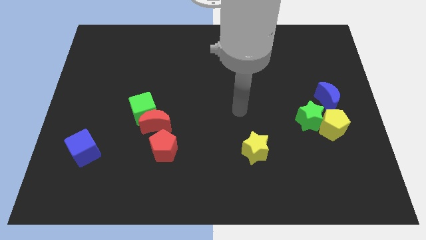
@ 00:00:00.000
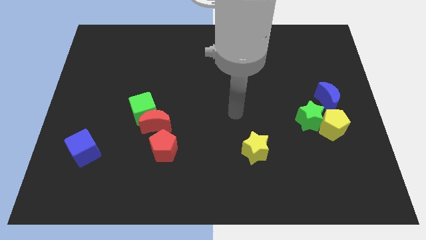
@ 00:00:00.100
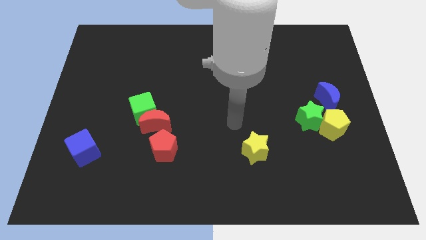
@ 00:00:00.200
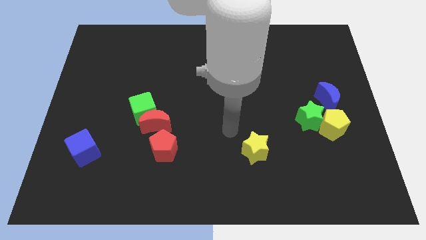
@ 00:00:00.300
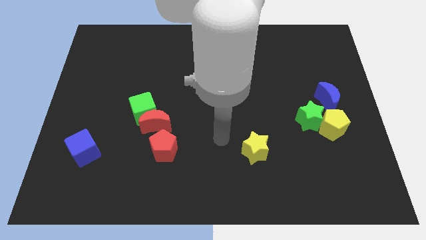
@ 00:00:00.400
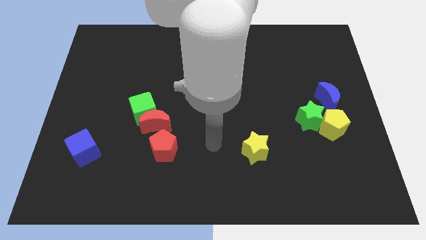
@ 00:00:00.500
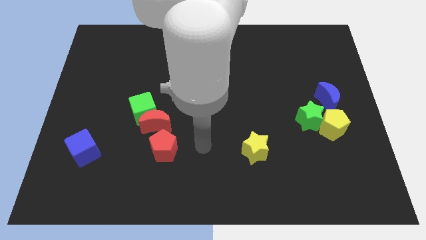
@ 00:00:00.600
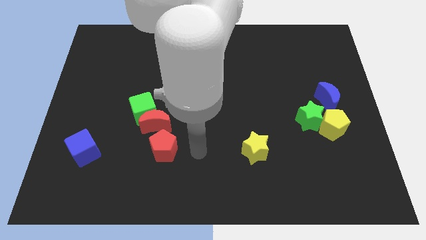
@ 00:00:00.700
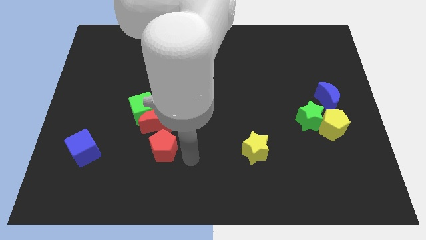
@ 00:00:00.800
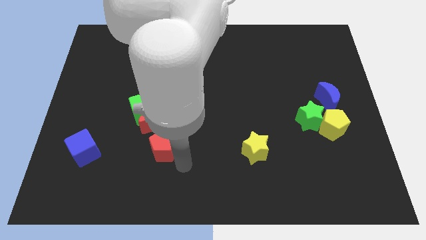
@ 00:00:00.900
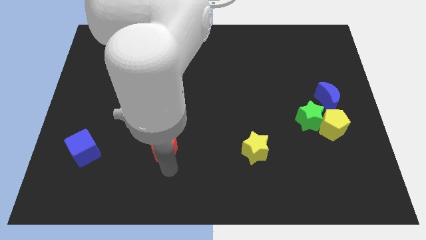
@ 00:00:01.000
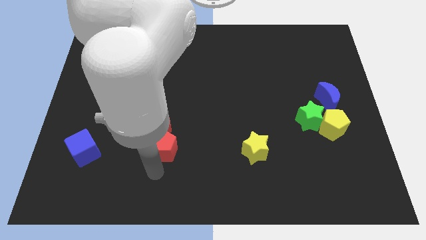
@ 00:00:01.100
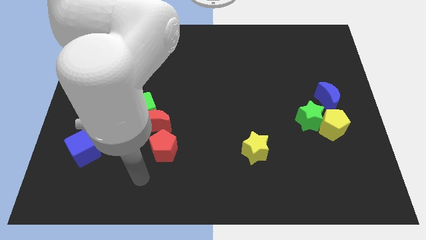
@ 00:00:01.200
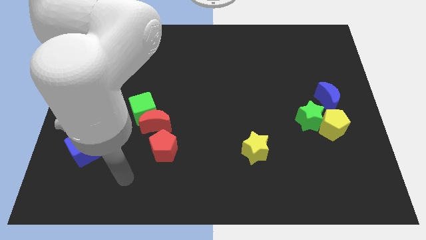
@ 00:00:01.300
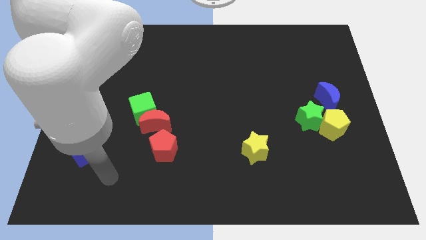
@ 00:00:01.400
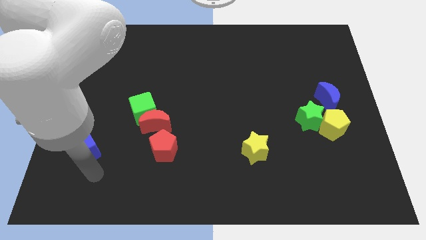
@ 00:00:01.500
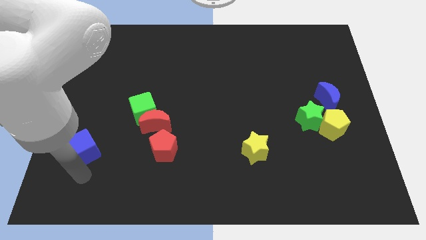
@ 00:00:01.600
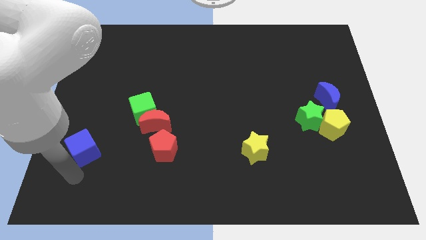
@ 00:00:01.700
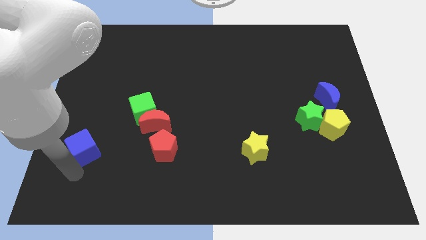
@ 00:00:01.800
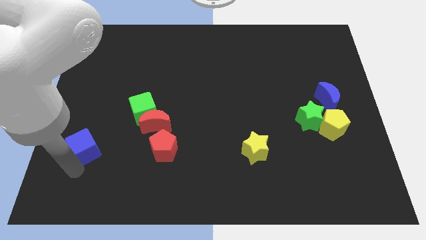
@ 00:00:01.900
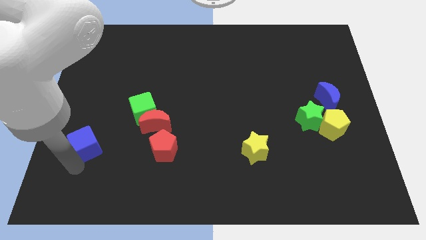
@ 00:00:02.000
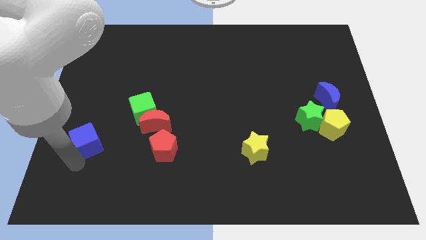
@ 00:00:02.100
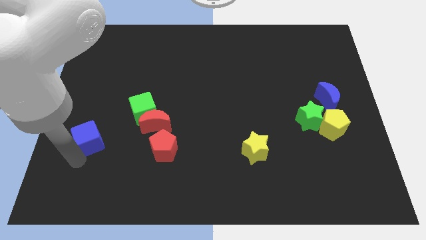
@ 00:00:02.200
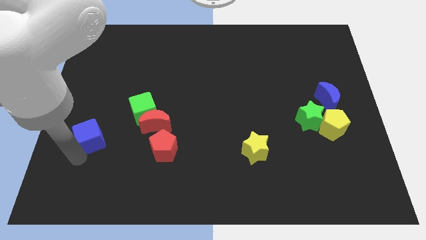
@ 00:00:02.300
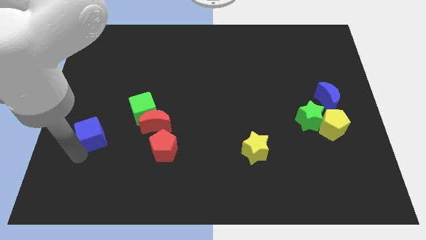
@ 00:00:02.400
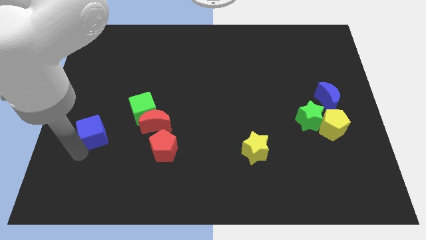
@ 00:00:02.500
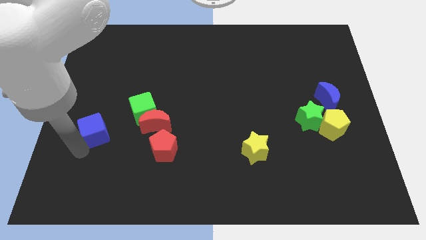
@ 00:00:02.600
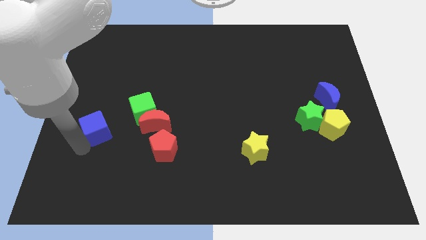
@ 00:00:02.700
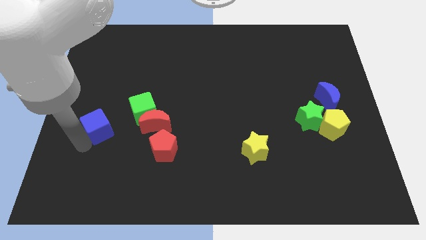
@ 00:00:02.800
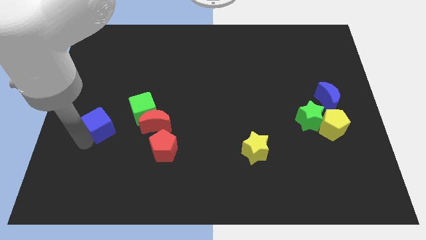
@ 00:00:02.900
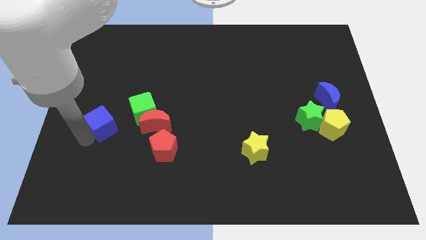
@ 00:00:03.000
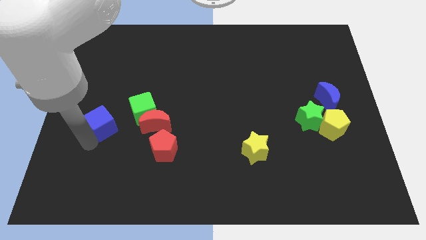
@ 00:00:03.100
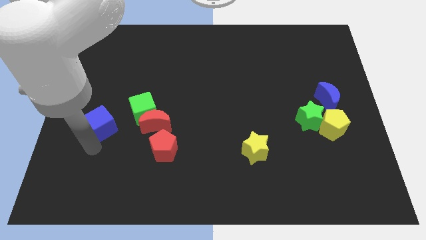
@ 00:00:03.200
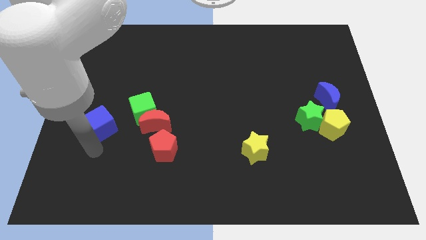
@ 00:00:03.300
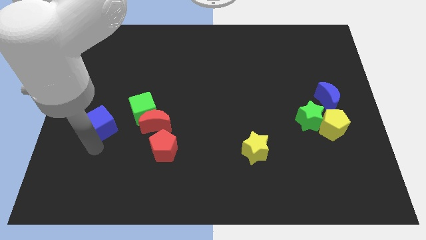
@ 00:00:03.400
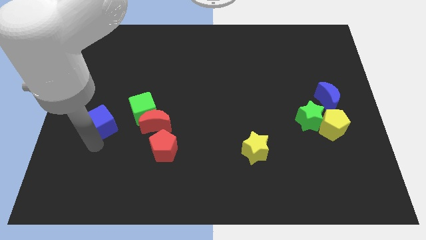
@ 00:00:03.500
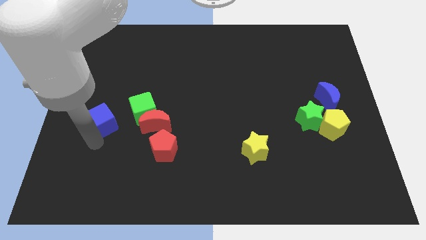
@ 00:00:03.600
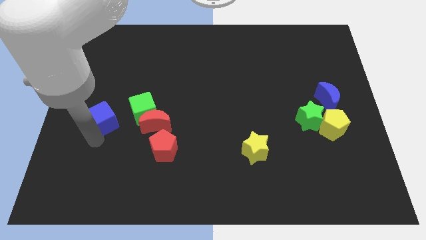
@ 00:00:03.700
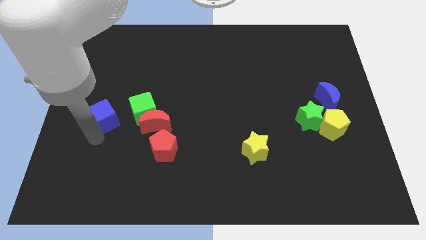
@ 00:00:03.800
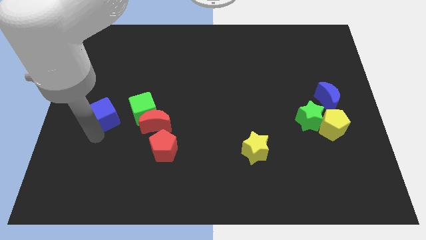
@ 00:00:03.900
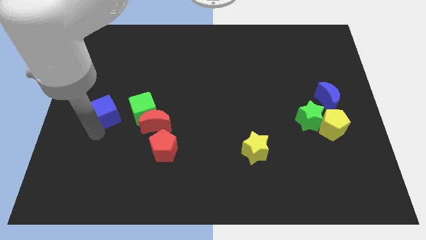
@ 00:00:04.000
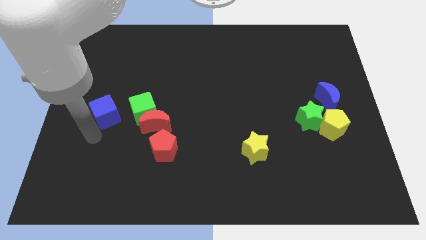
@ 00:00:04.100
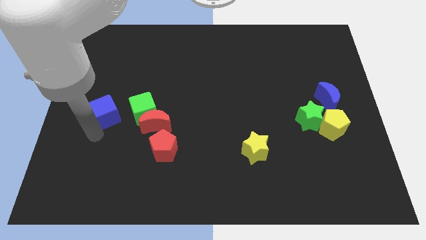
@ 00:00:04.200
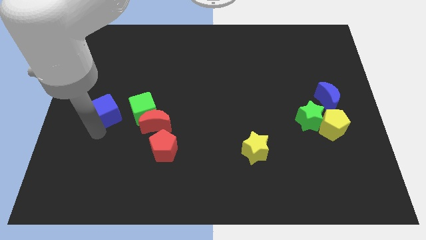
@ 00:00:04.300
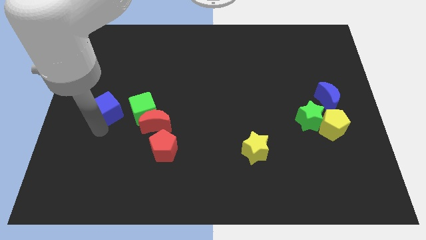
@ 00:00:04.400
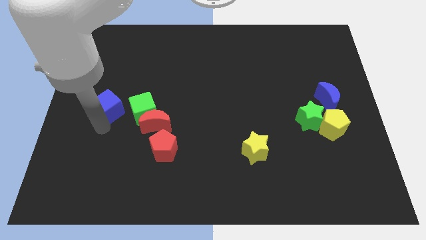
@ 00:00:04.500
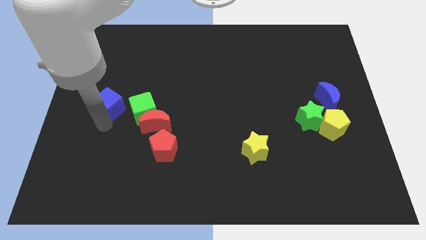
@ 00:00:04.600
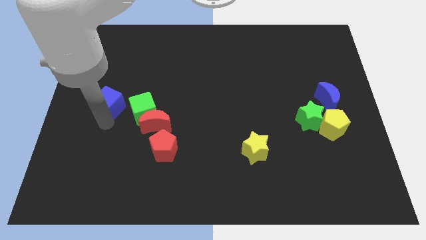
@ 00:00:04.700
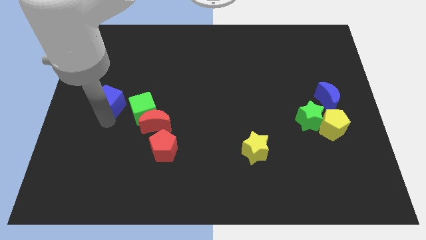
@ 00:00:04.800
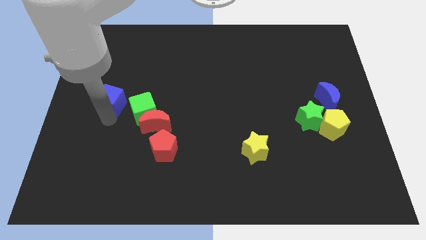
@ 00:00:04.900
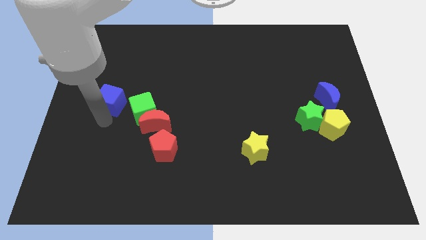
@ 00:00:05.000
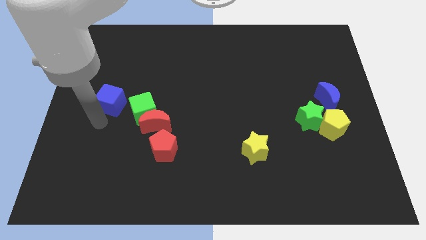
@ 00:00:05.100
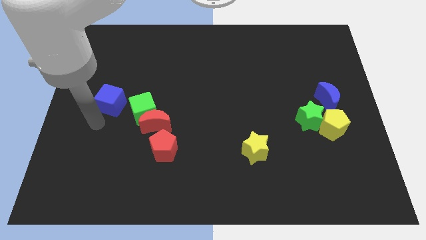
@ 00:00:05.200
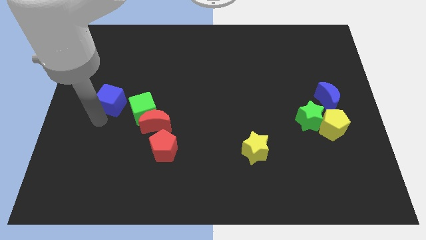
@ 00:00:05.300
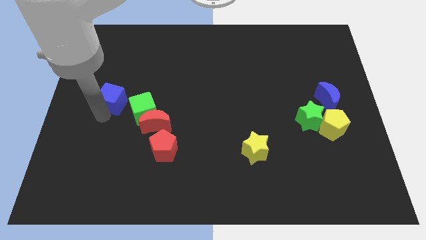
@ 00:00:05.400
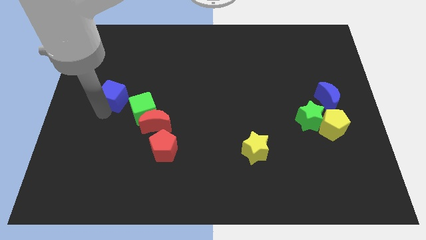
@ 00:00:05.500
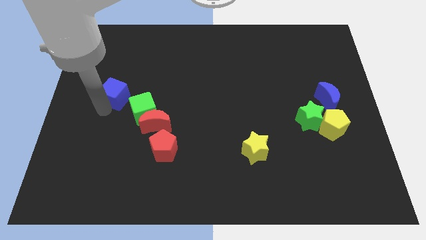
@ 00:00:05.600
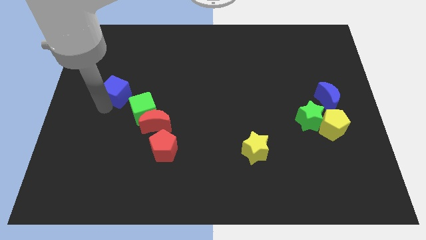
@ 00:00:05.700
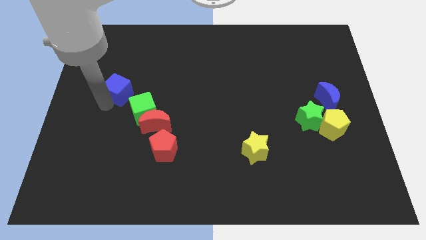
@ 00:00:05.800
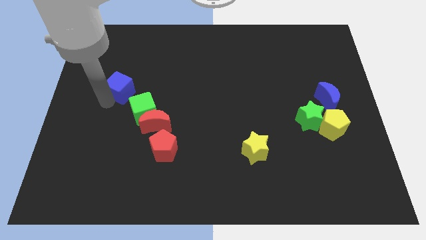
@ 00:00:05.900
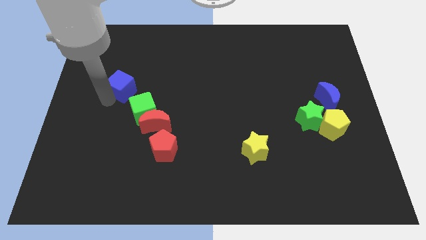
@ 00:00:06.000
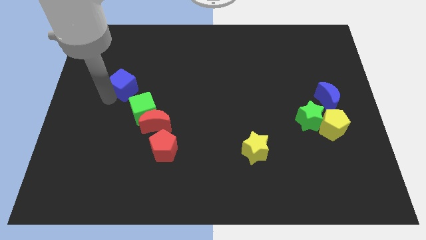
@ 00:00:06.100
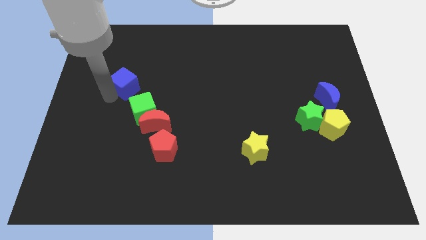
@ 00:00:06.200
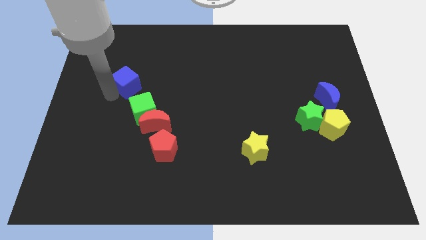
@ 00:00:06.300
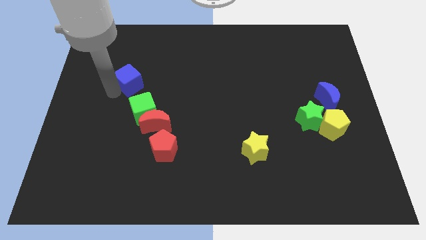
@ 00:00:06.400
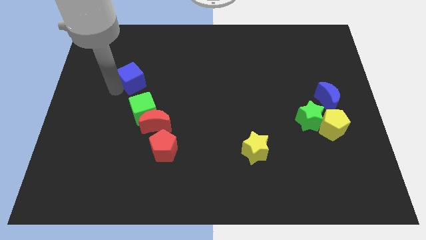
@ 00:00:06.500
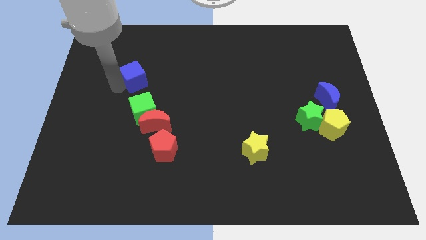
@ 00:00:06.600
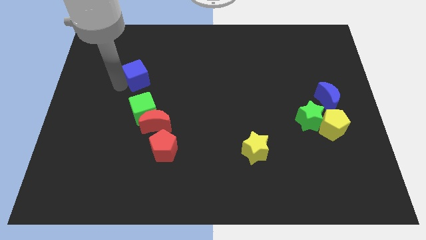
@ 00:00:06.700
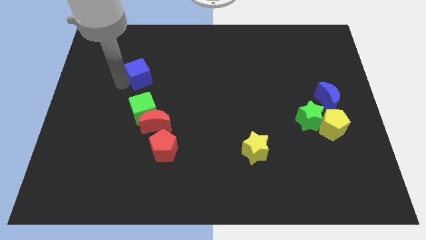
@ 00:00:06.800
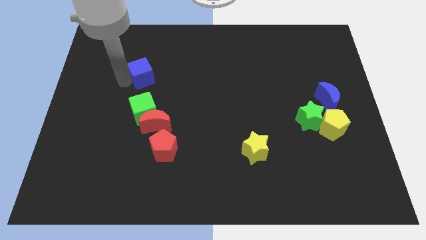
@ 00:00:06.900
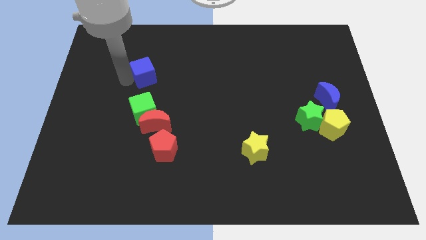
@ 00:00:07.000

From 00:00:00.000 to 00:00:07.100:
move the blue cube diagonally up and to the right

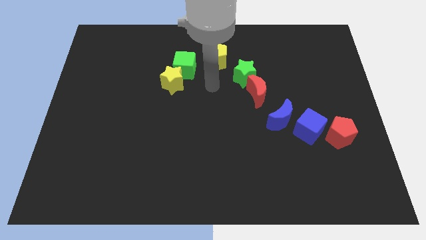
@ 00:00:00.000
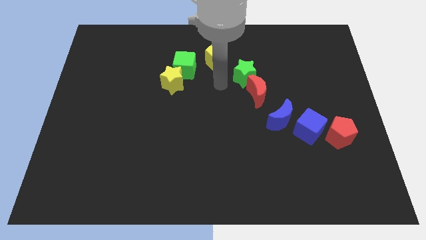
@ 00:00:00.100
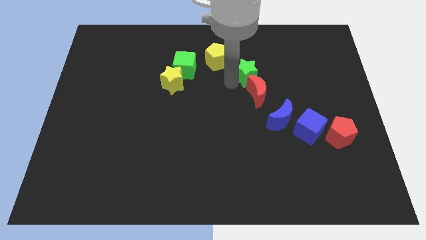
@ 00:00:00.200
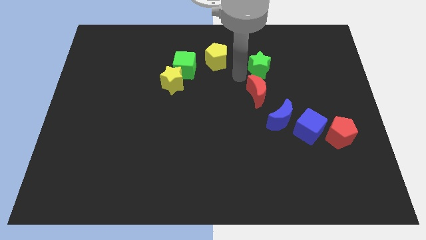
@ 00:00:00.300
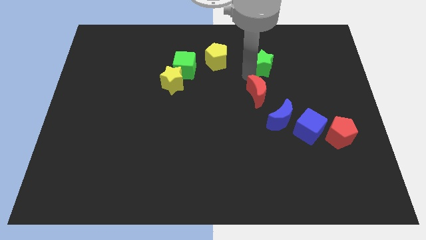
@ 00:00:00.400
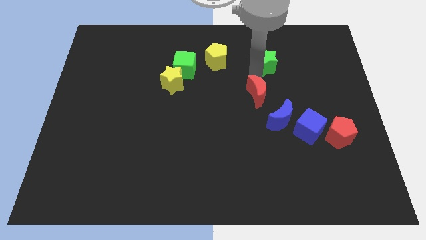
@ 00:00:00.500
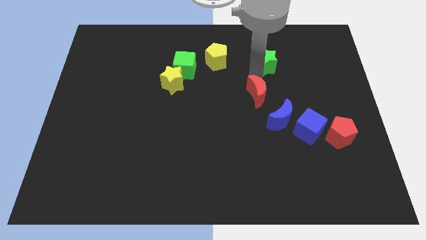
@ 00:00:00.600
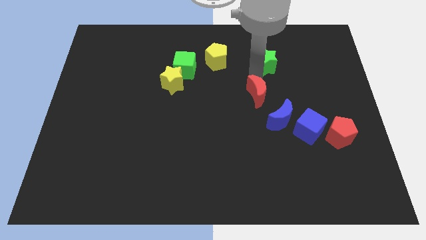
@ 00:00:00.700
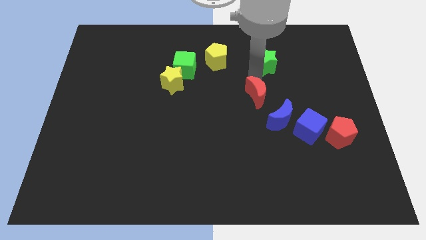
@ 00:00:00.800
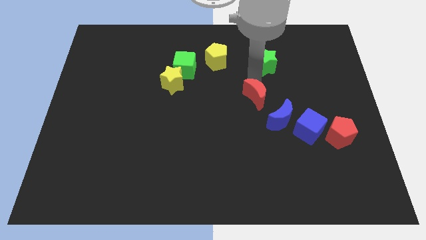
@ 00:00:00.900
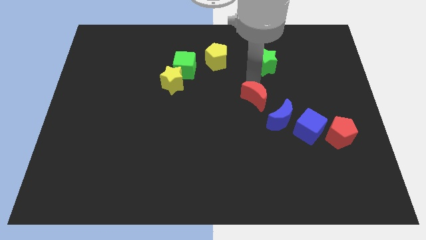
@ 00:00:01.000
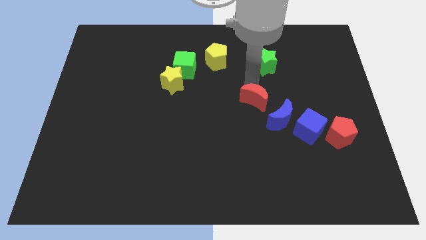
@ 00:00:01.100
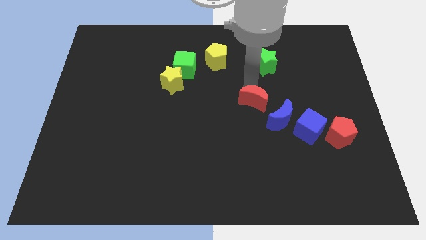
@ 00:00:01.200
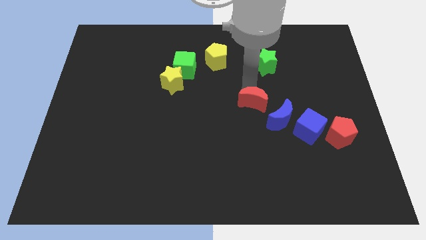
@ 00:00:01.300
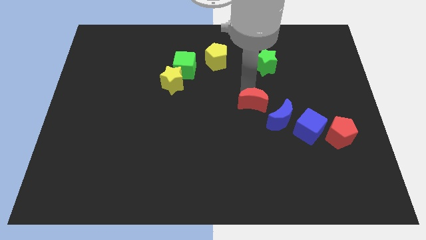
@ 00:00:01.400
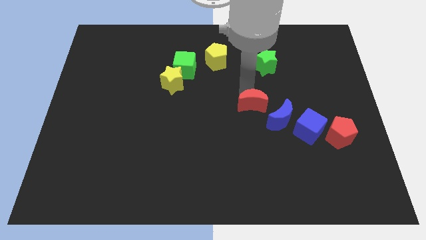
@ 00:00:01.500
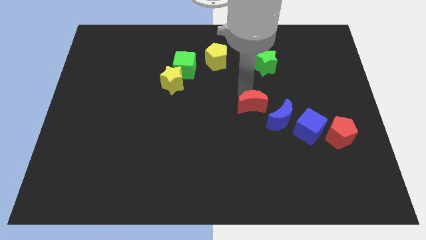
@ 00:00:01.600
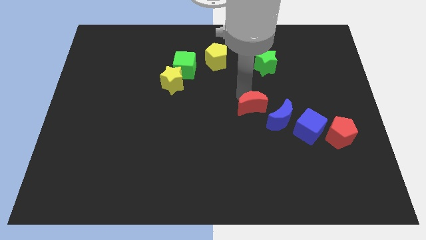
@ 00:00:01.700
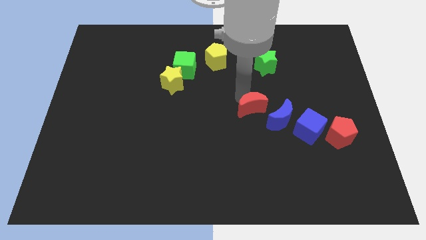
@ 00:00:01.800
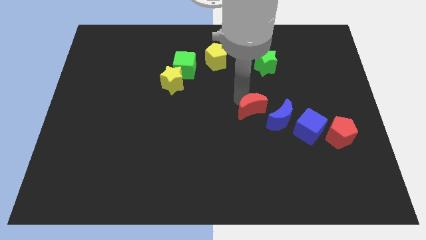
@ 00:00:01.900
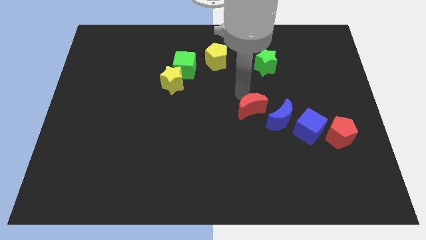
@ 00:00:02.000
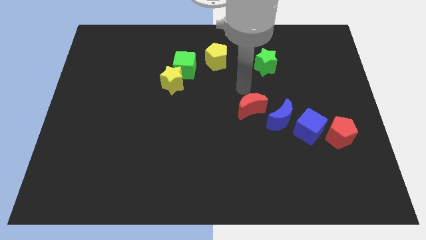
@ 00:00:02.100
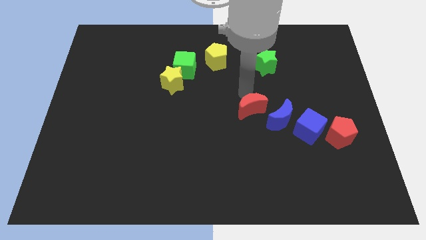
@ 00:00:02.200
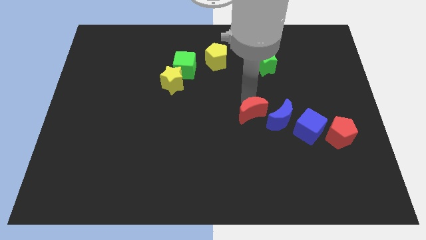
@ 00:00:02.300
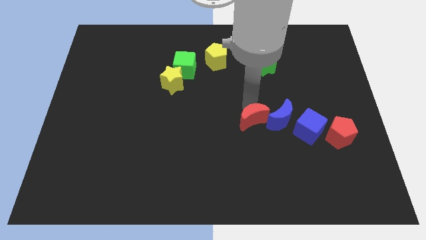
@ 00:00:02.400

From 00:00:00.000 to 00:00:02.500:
push the red moon downwards somewhat
